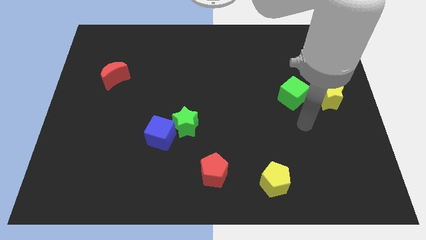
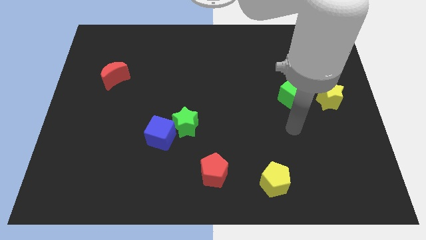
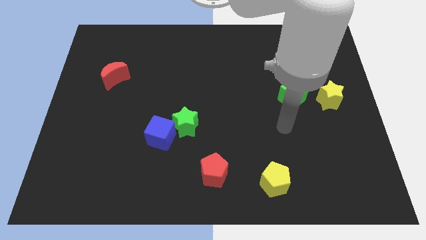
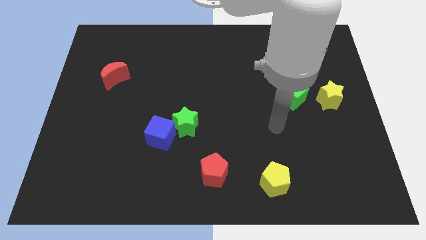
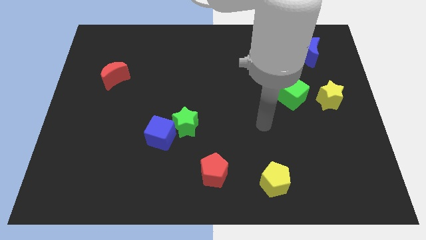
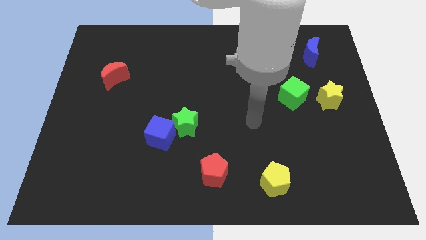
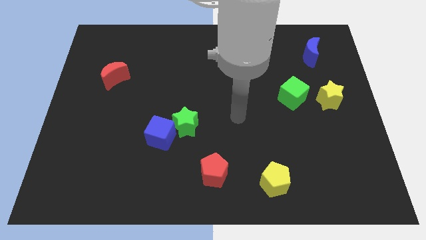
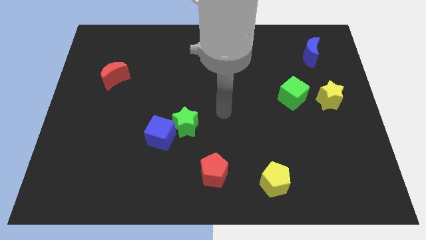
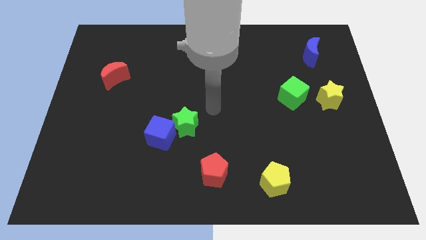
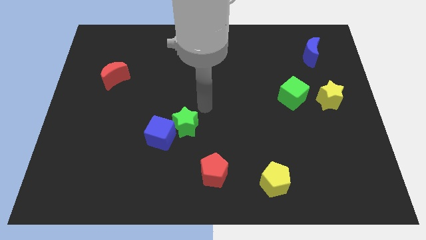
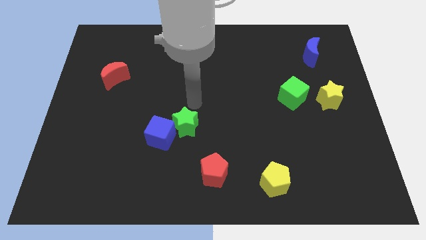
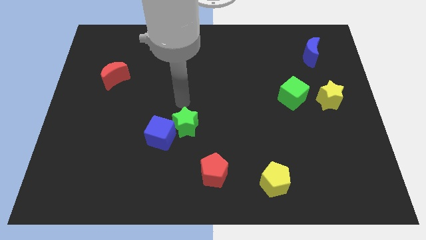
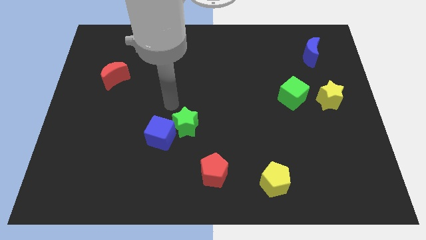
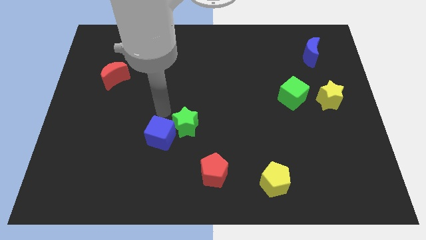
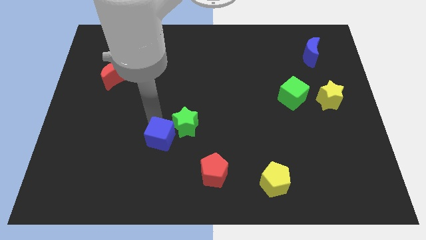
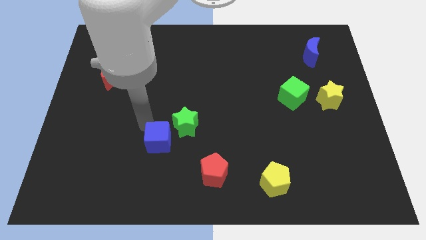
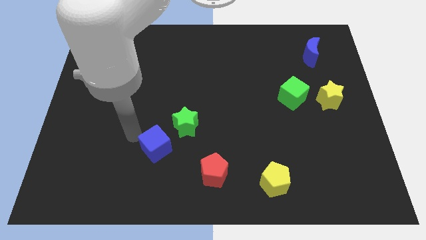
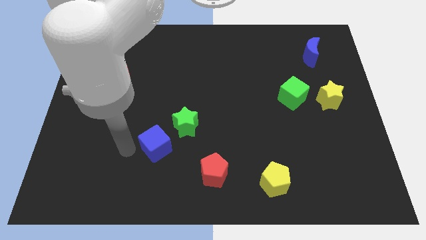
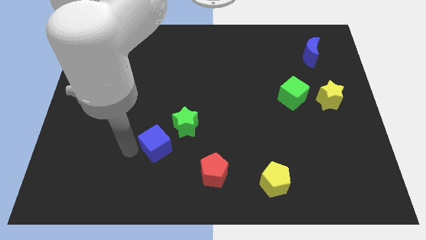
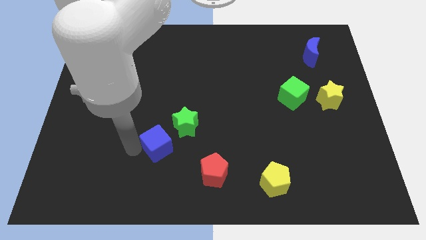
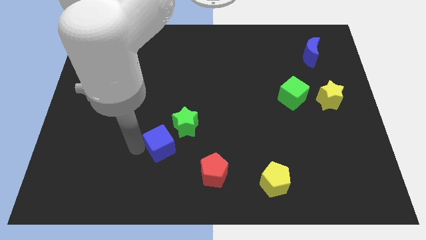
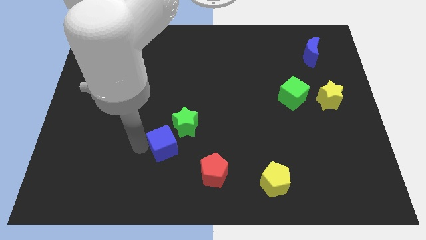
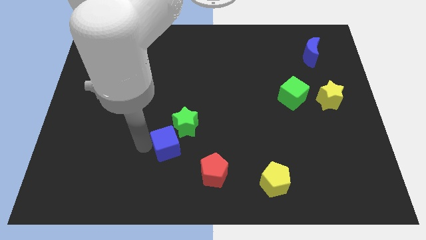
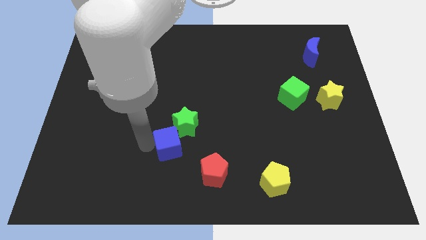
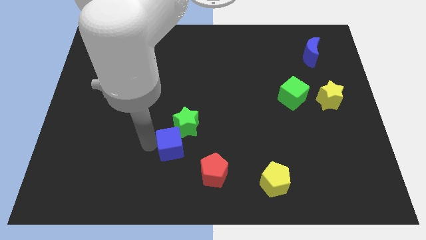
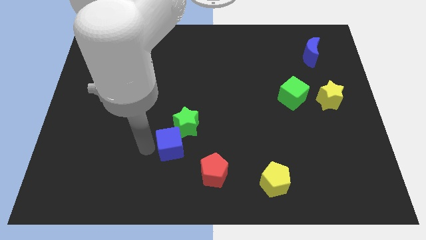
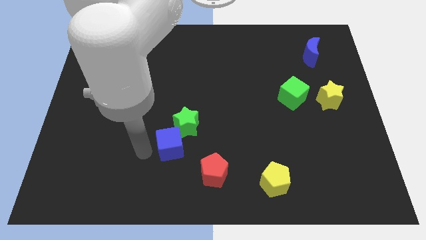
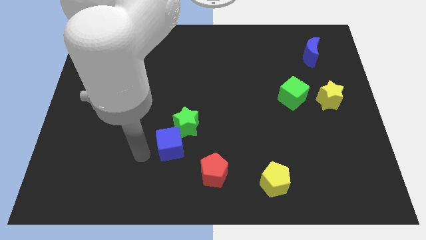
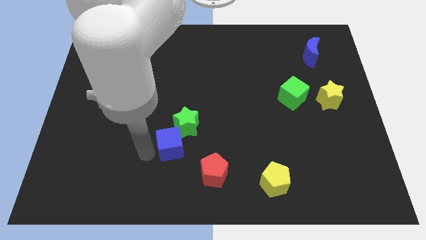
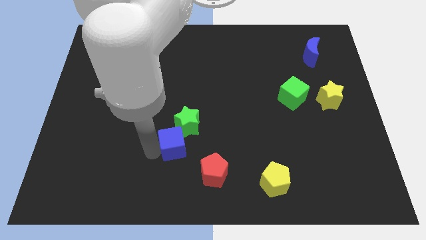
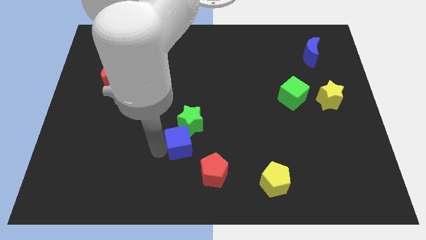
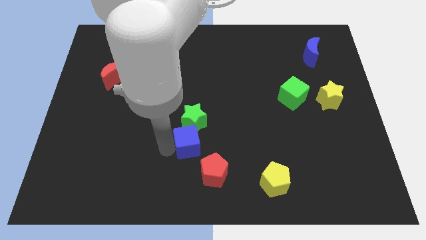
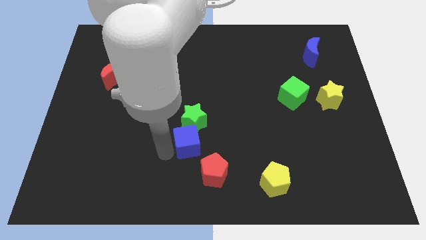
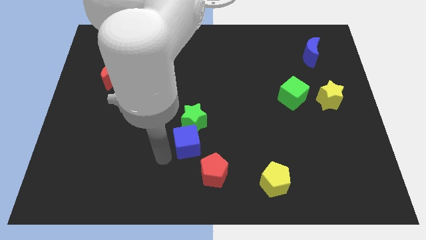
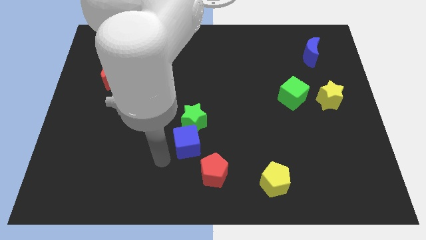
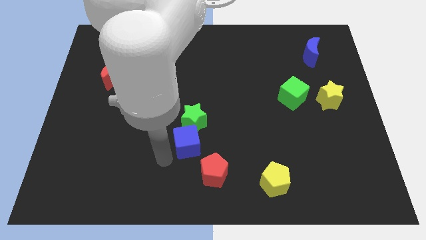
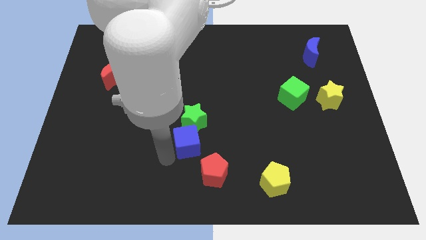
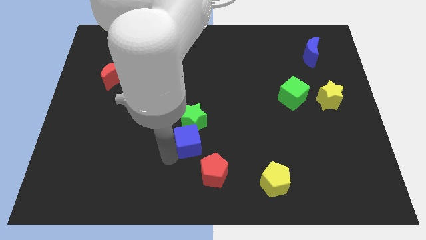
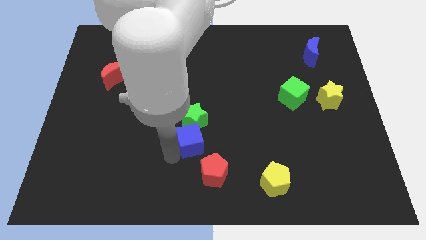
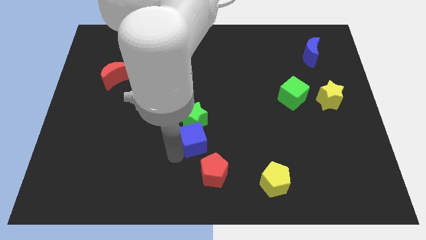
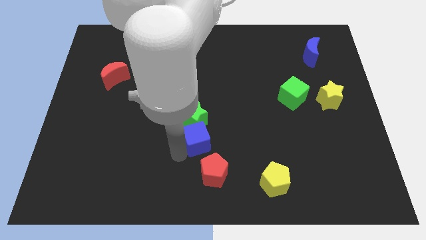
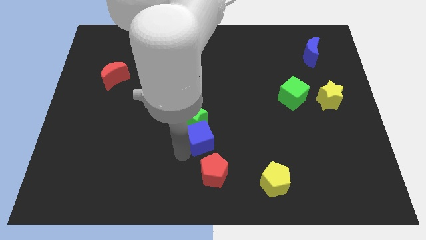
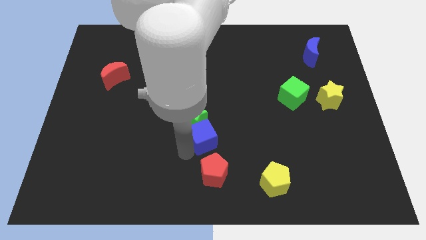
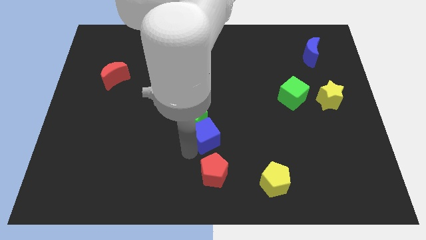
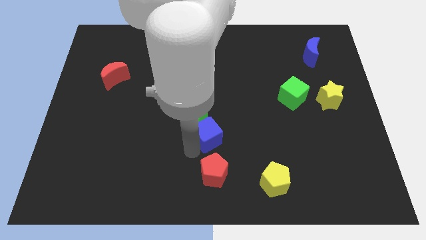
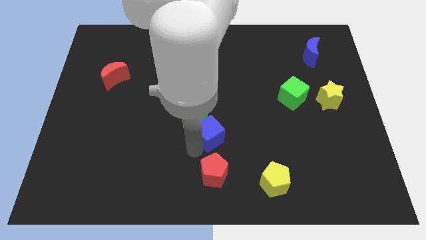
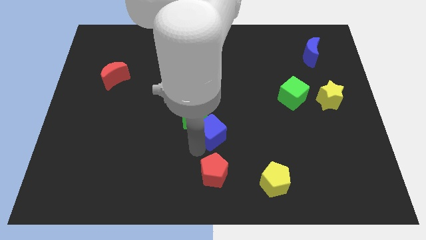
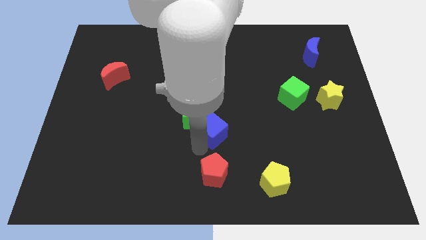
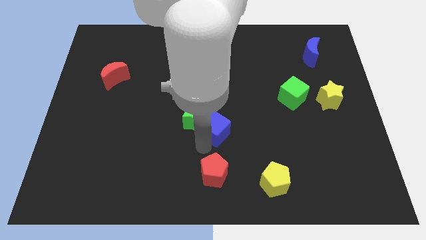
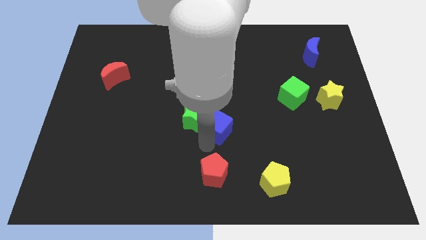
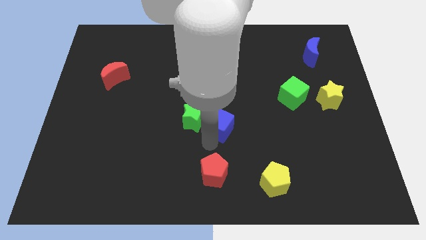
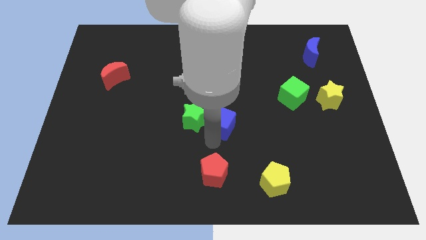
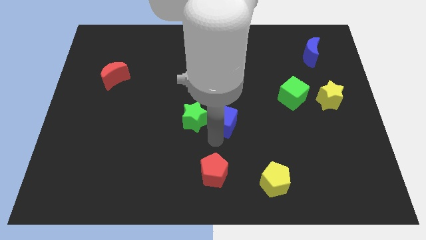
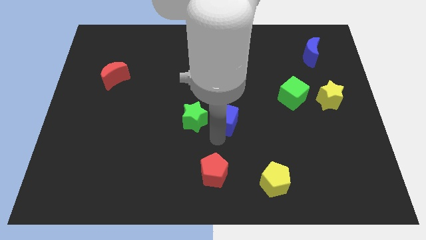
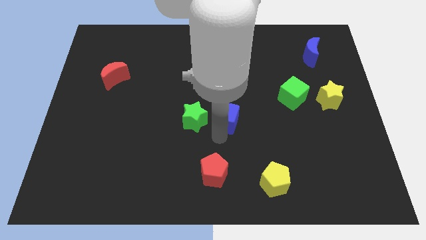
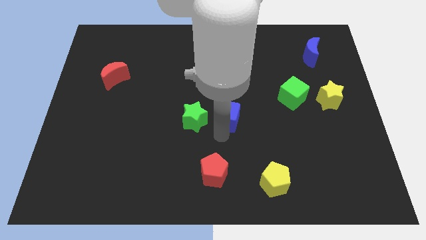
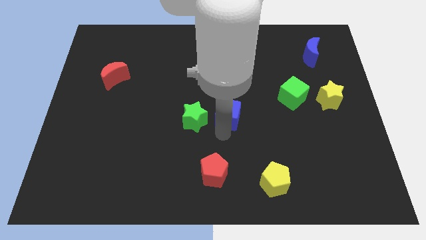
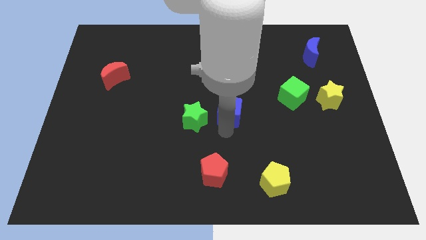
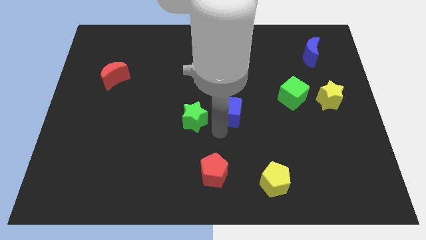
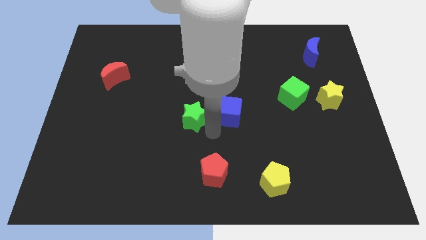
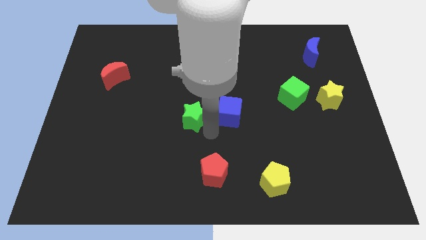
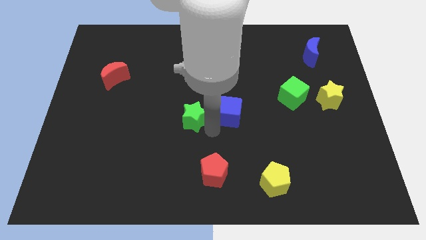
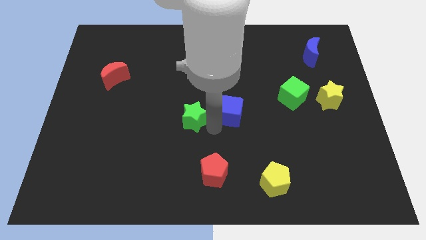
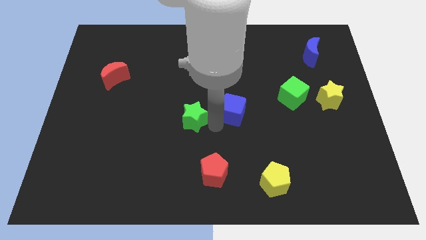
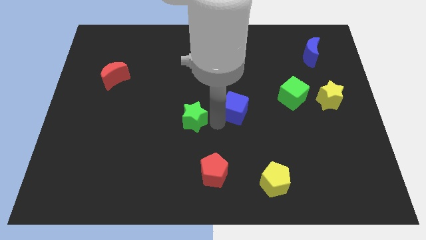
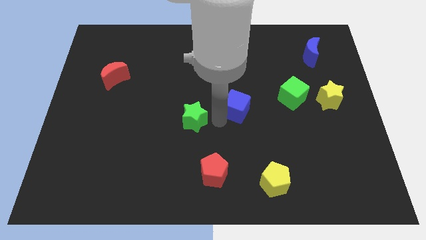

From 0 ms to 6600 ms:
push the blue cube just left of the green cube
